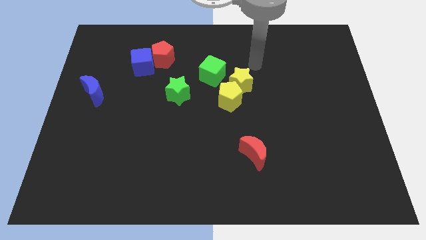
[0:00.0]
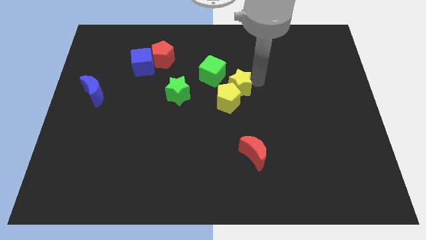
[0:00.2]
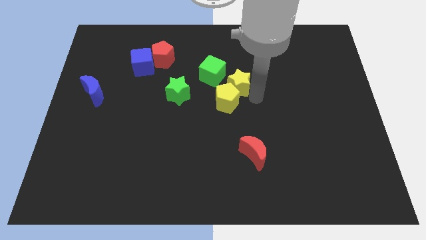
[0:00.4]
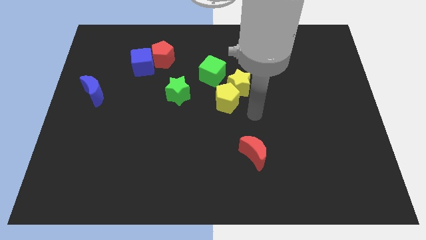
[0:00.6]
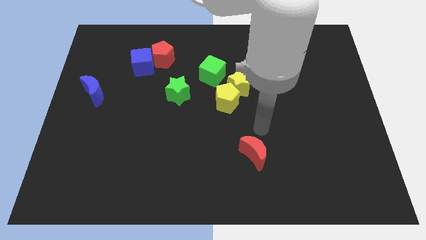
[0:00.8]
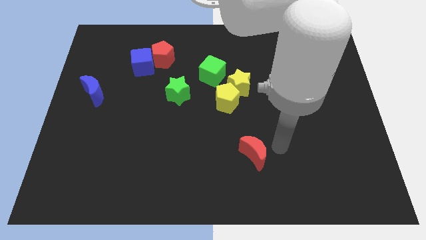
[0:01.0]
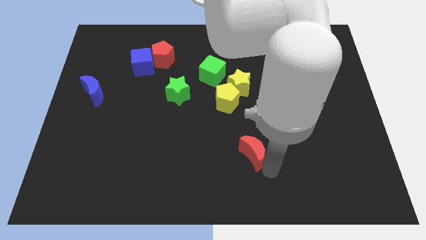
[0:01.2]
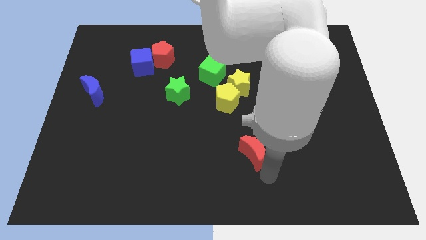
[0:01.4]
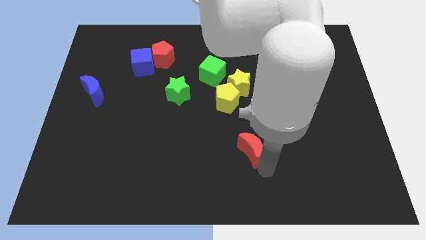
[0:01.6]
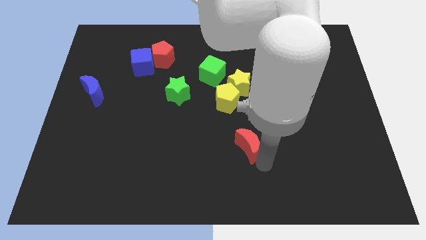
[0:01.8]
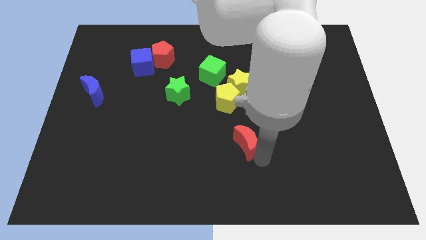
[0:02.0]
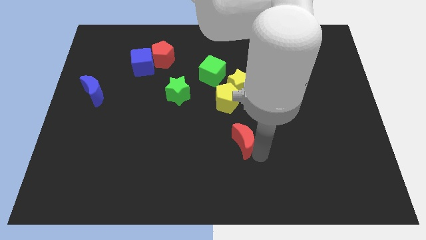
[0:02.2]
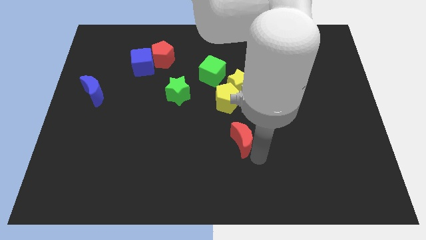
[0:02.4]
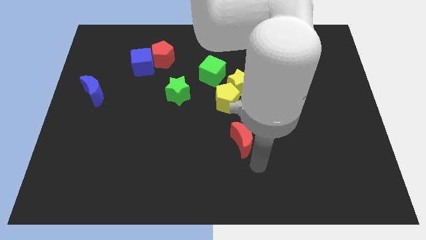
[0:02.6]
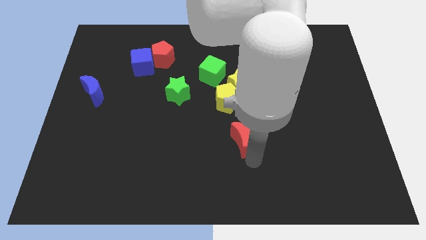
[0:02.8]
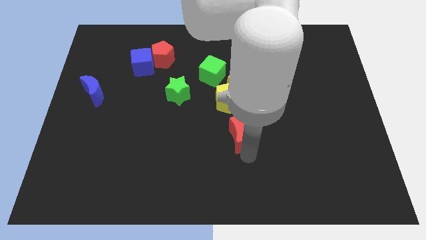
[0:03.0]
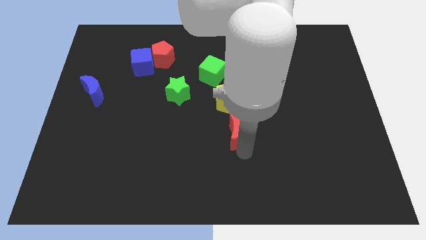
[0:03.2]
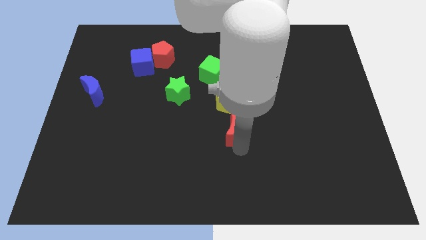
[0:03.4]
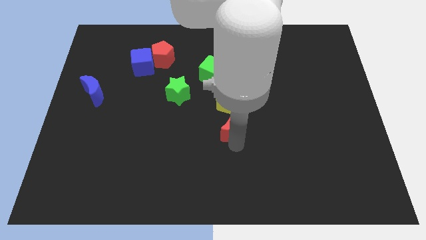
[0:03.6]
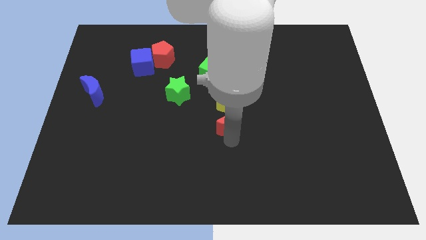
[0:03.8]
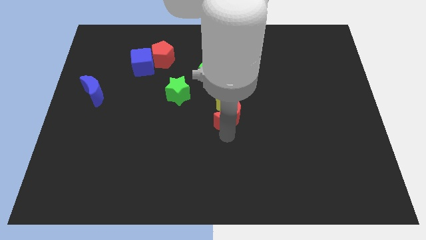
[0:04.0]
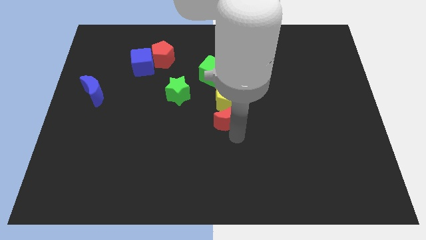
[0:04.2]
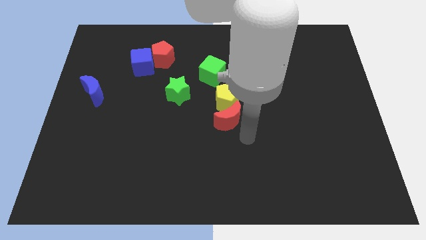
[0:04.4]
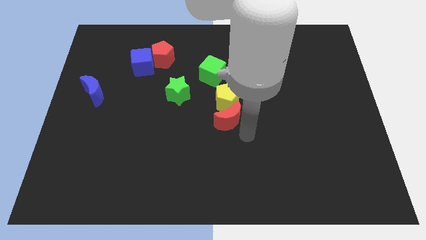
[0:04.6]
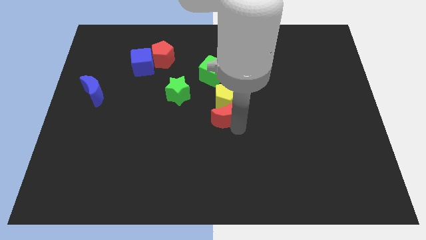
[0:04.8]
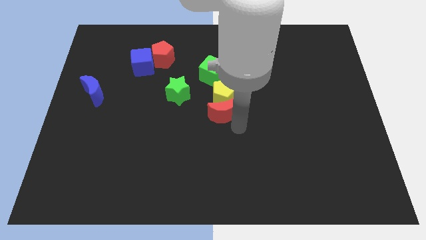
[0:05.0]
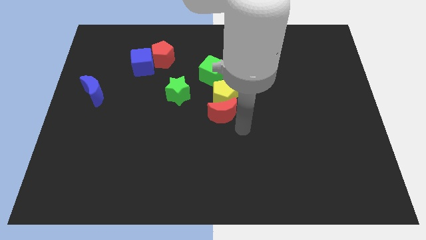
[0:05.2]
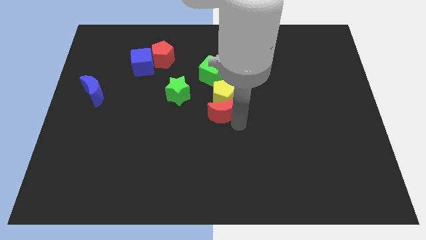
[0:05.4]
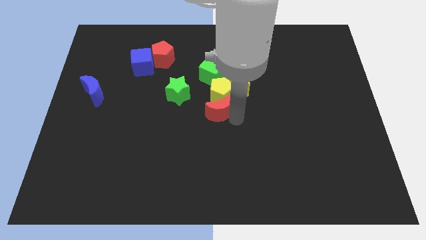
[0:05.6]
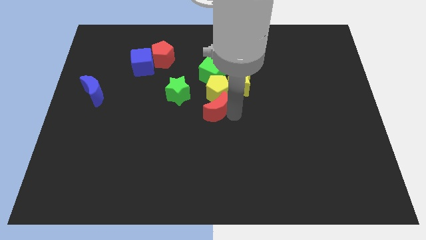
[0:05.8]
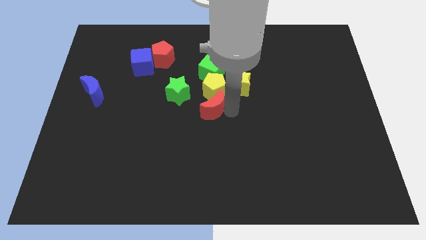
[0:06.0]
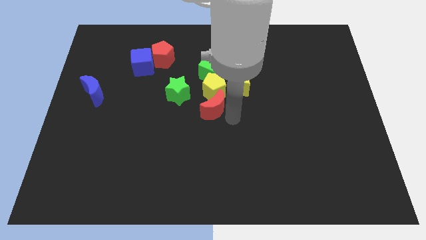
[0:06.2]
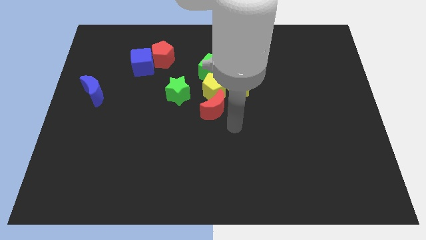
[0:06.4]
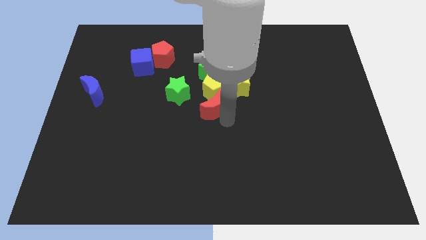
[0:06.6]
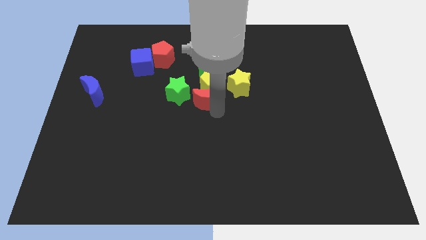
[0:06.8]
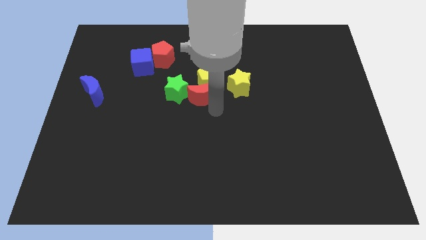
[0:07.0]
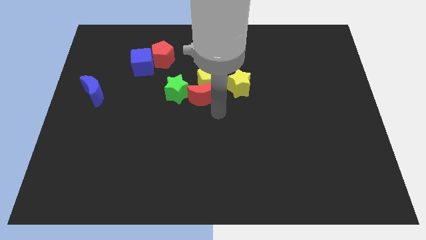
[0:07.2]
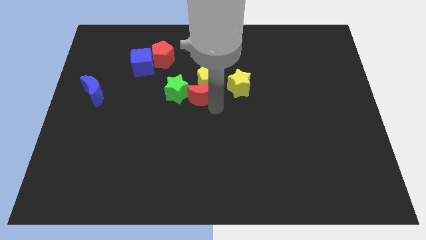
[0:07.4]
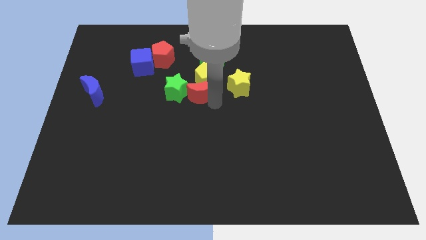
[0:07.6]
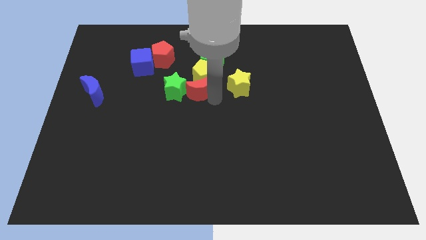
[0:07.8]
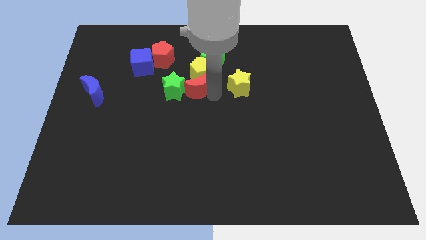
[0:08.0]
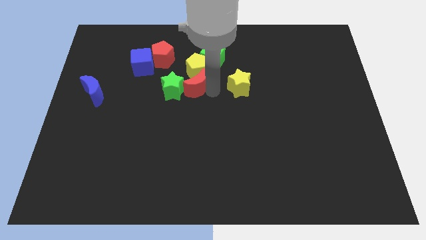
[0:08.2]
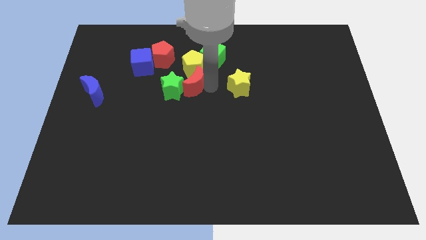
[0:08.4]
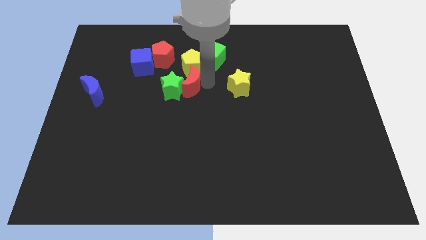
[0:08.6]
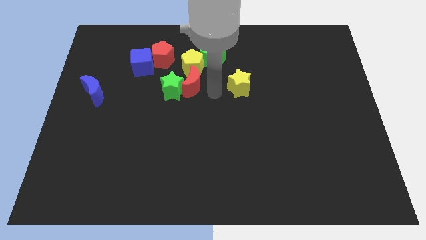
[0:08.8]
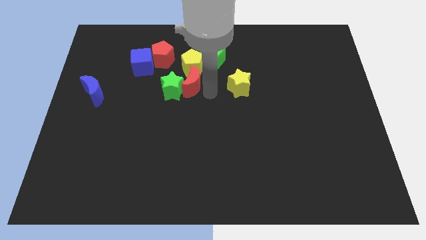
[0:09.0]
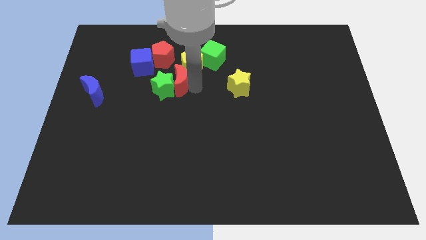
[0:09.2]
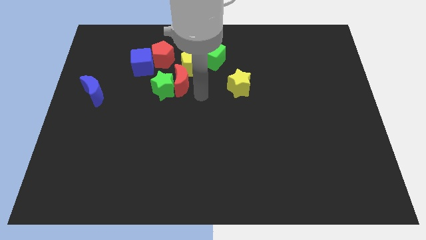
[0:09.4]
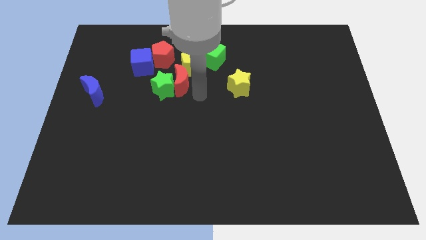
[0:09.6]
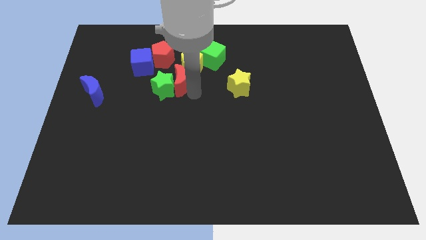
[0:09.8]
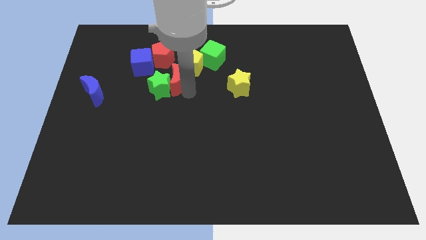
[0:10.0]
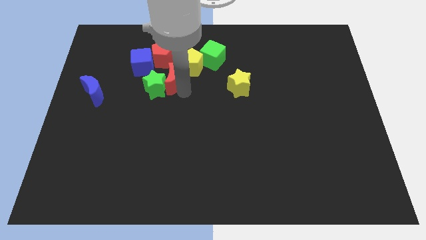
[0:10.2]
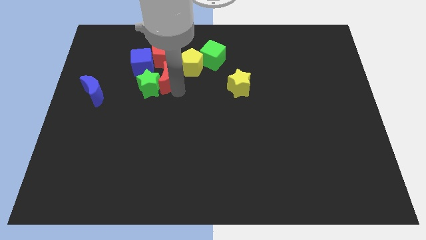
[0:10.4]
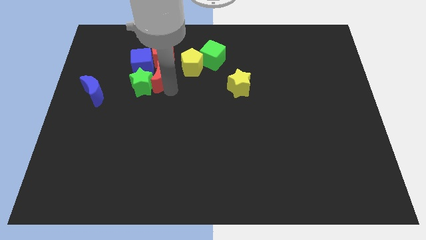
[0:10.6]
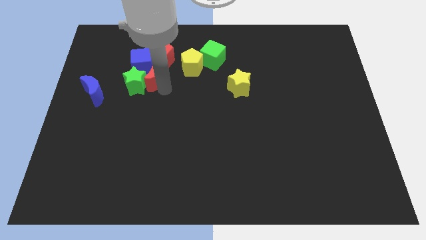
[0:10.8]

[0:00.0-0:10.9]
put the red moon to the blue cube

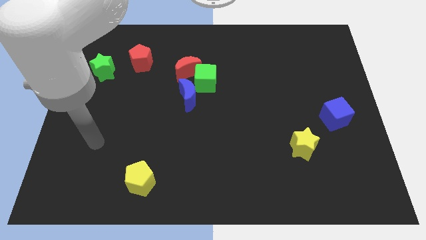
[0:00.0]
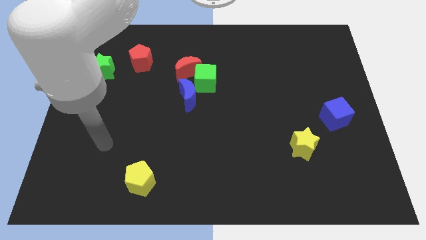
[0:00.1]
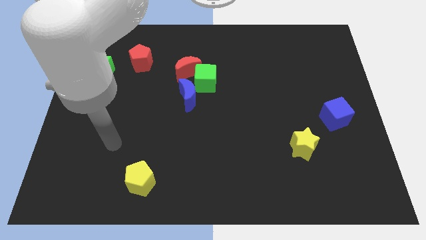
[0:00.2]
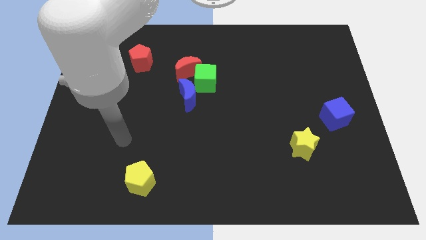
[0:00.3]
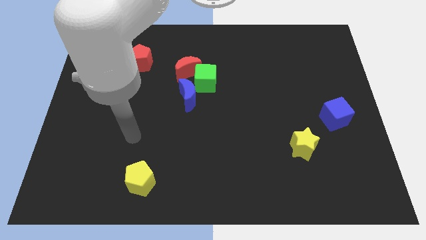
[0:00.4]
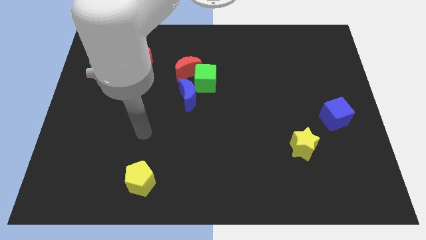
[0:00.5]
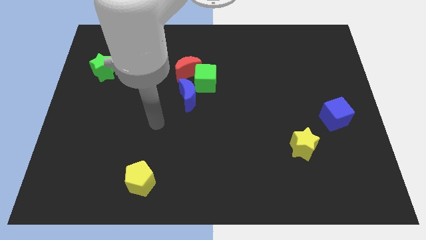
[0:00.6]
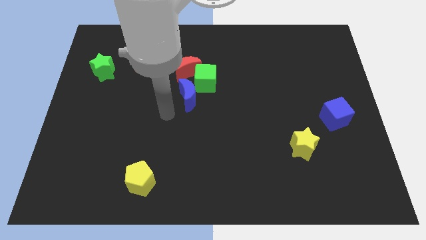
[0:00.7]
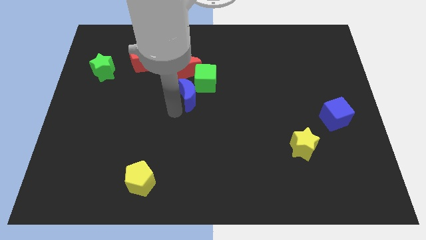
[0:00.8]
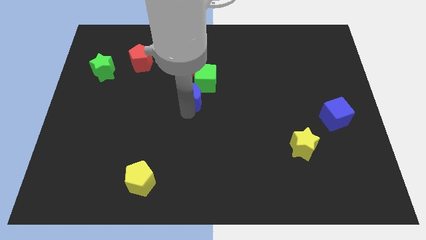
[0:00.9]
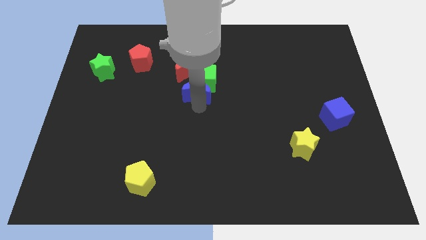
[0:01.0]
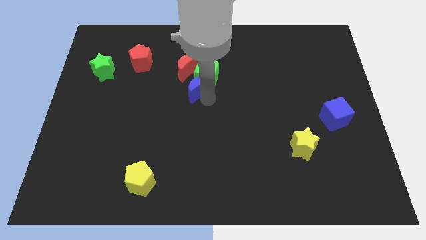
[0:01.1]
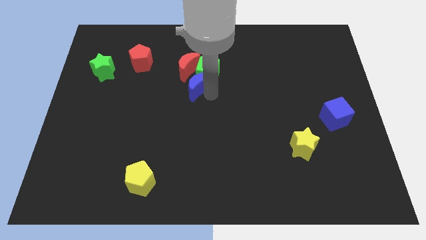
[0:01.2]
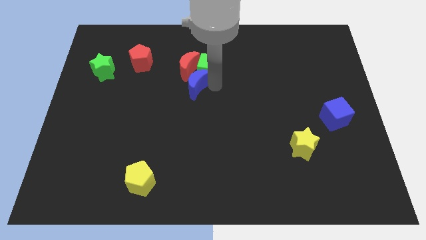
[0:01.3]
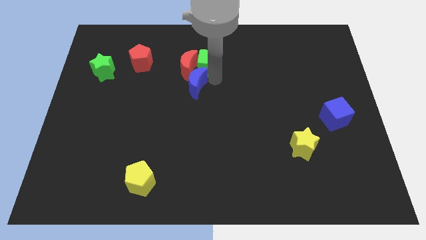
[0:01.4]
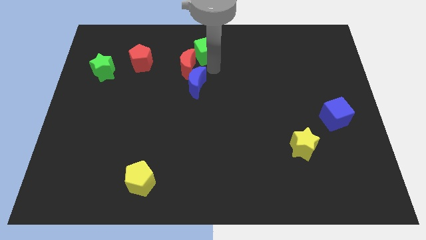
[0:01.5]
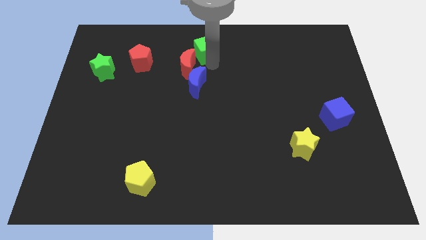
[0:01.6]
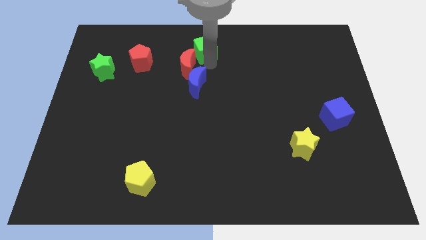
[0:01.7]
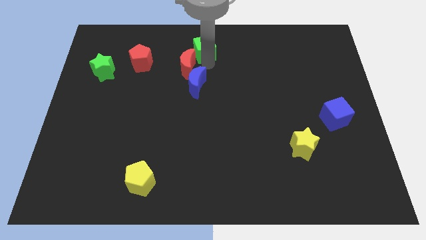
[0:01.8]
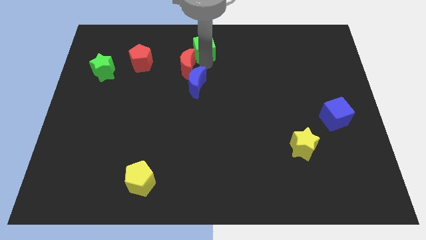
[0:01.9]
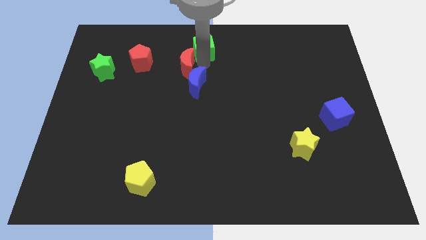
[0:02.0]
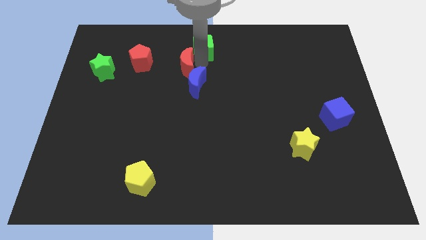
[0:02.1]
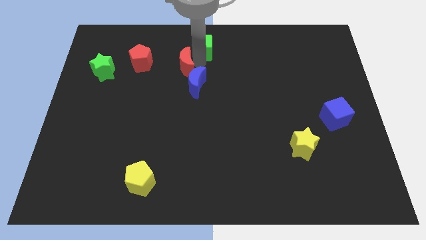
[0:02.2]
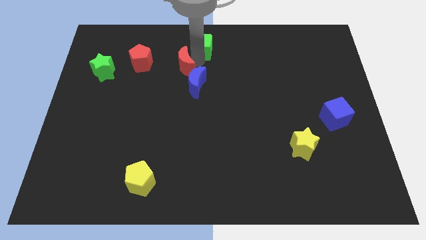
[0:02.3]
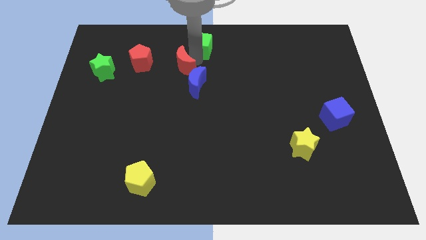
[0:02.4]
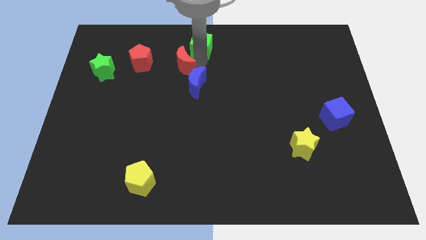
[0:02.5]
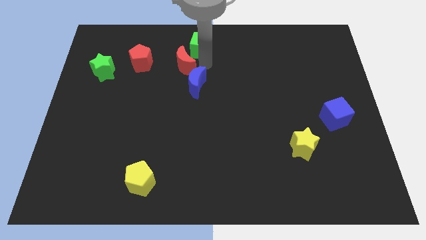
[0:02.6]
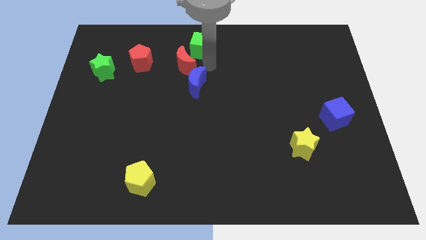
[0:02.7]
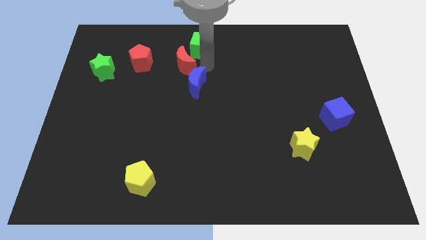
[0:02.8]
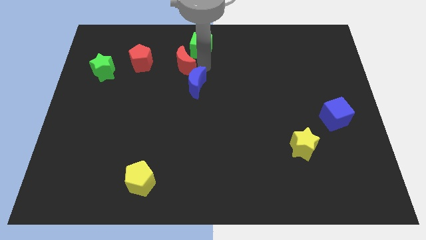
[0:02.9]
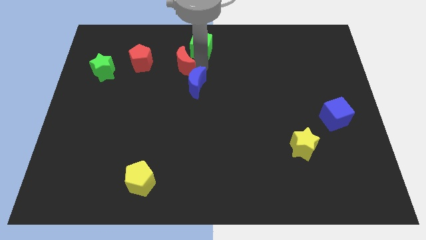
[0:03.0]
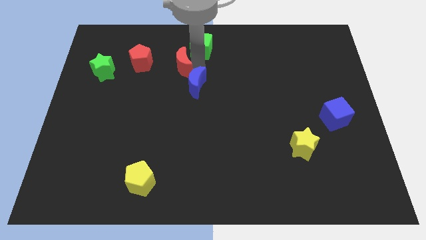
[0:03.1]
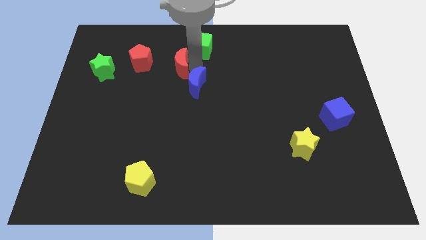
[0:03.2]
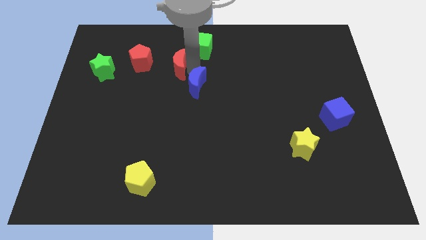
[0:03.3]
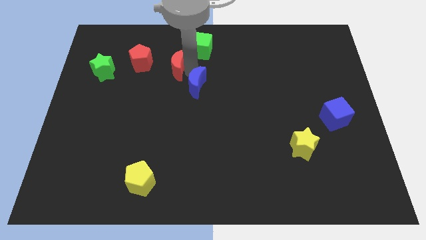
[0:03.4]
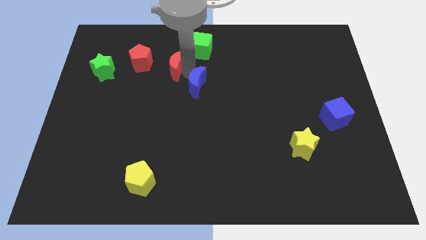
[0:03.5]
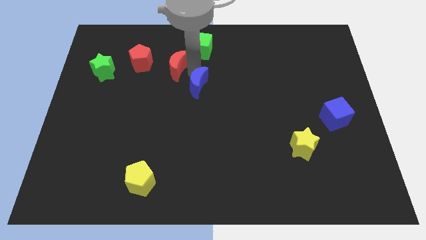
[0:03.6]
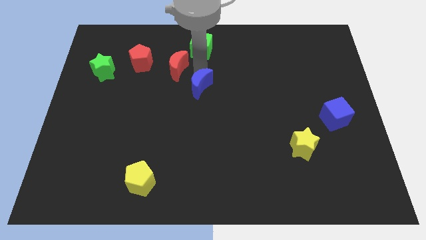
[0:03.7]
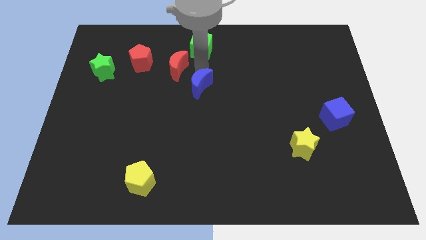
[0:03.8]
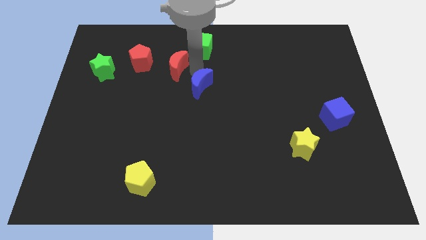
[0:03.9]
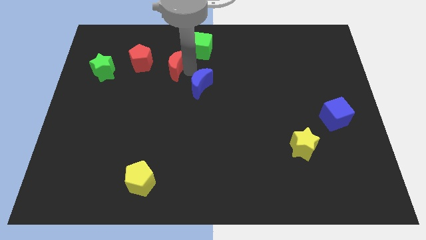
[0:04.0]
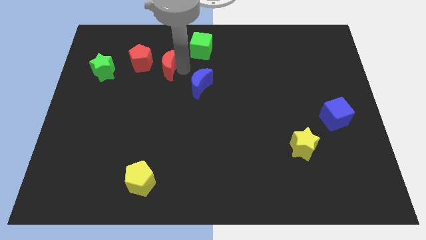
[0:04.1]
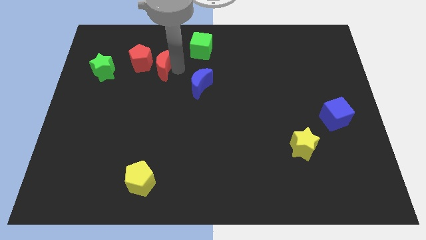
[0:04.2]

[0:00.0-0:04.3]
put the red moon to the red pentagon
